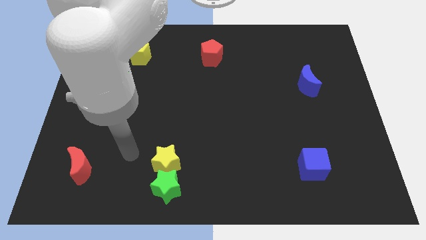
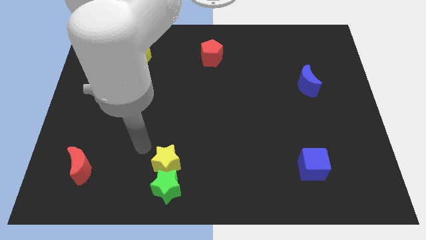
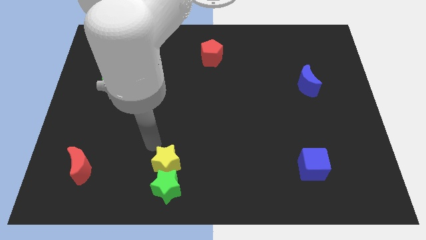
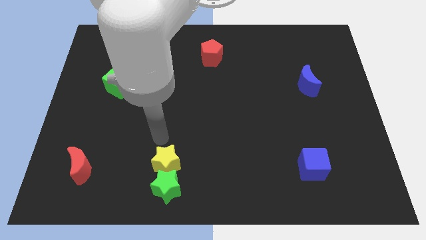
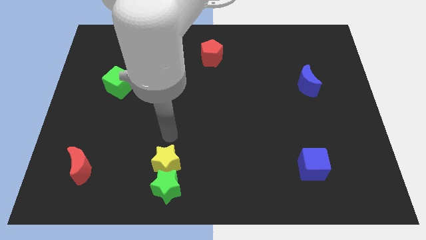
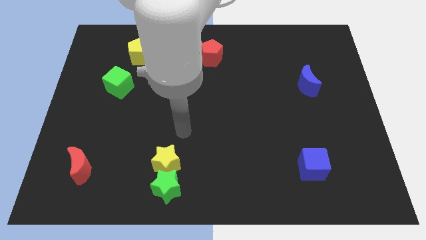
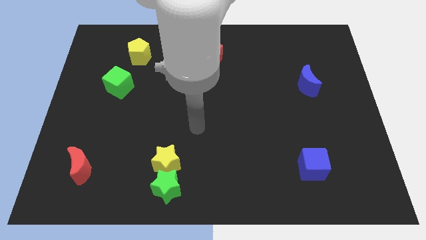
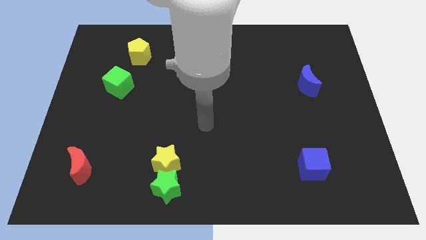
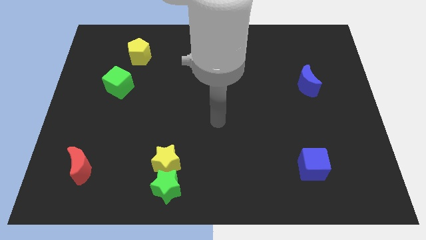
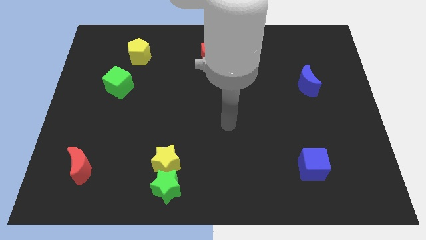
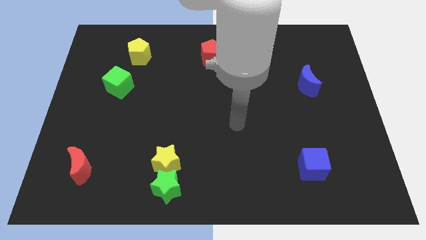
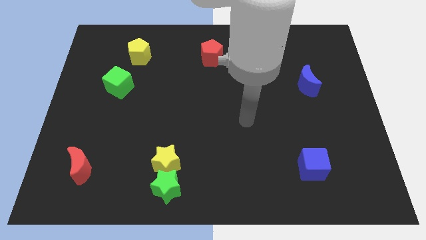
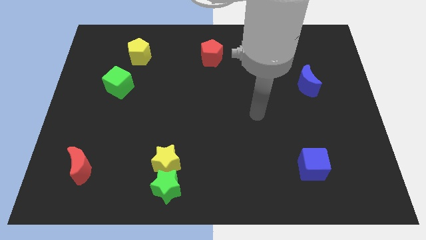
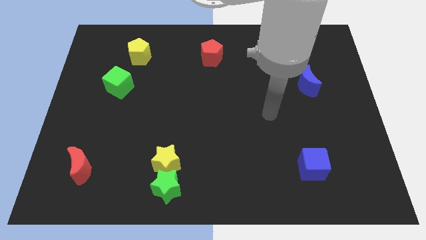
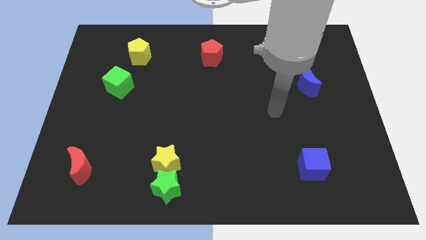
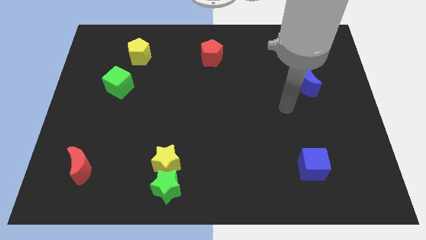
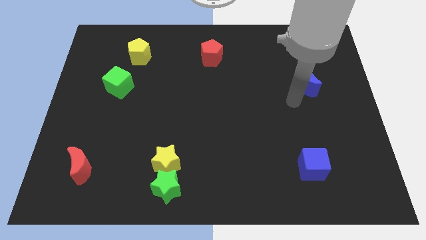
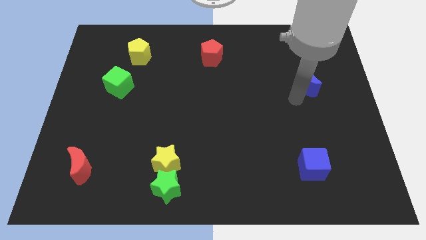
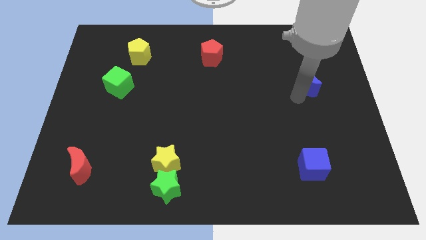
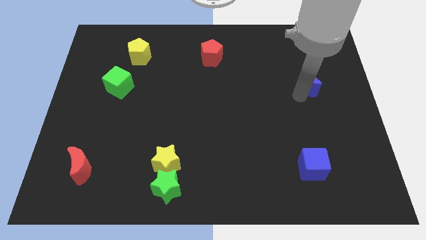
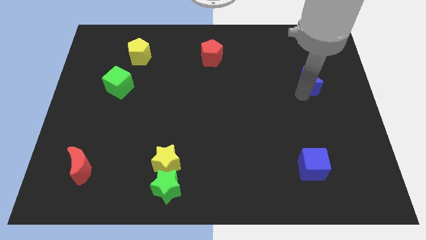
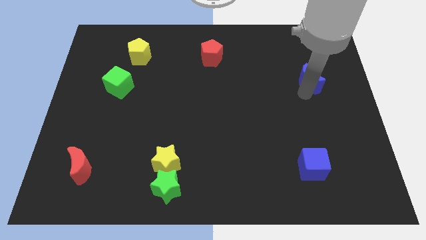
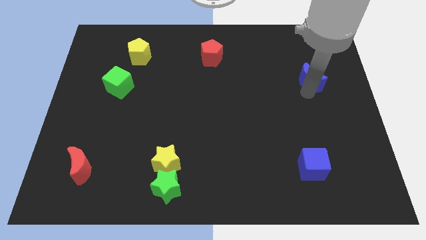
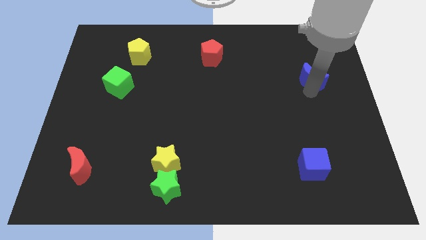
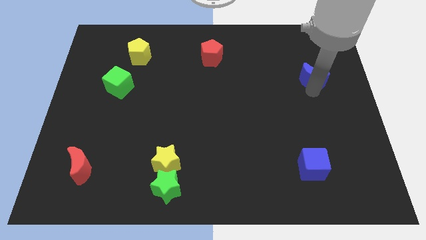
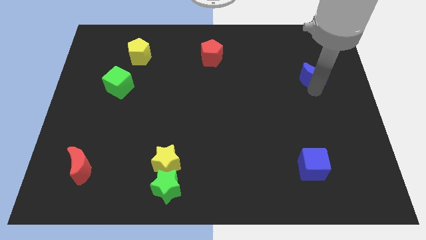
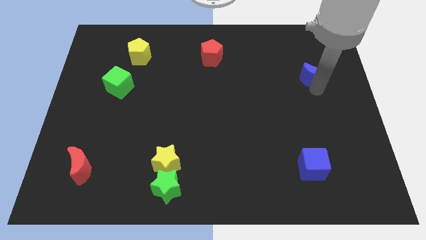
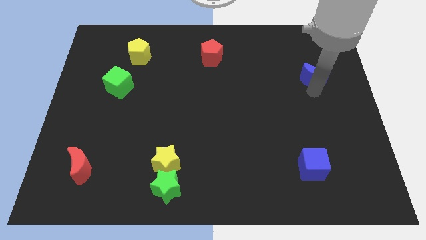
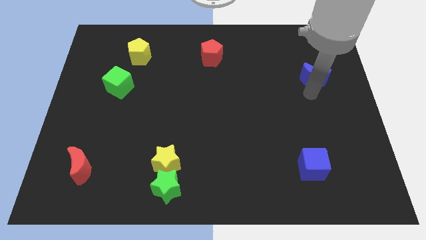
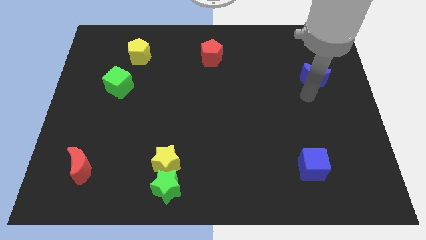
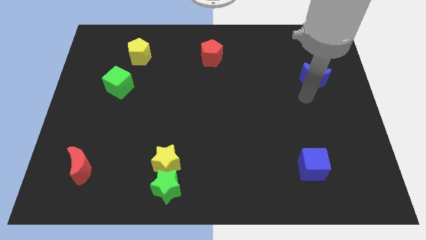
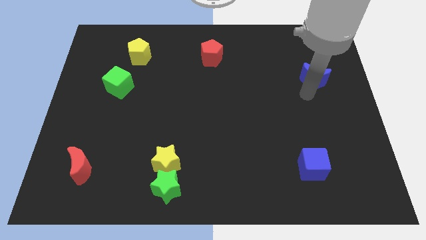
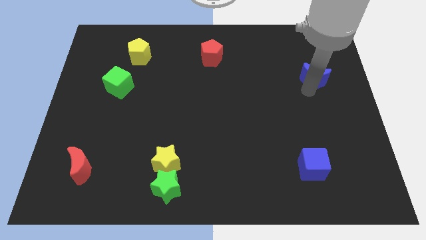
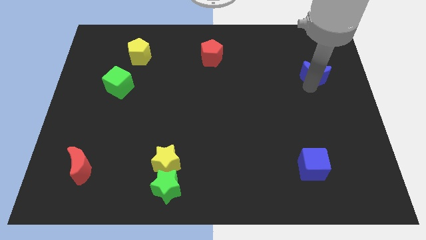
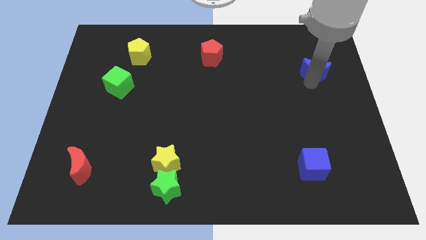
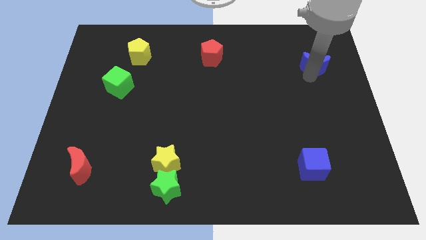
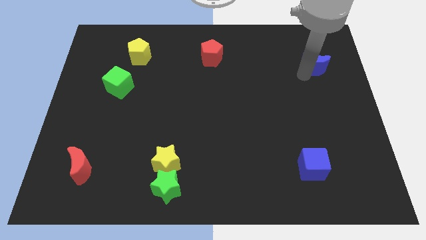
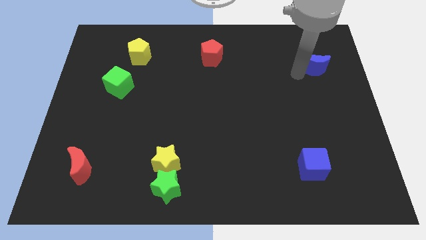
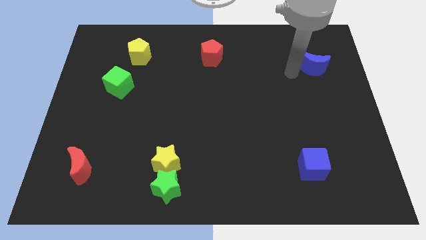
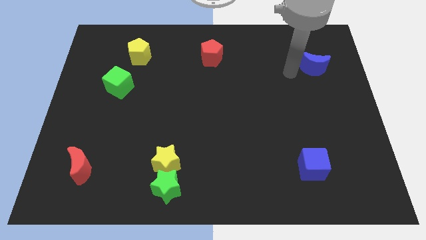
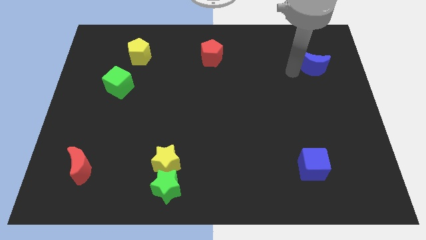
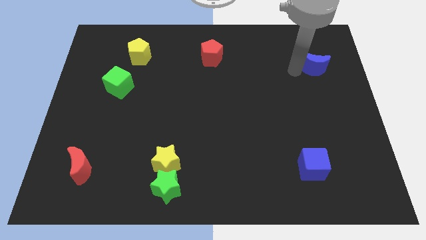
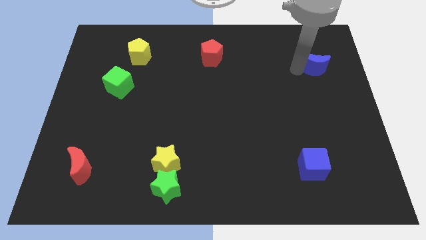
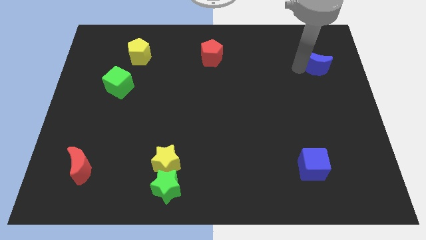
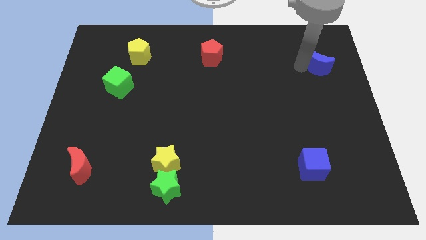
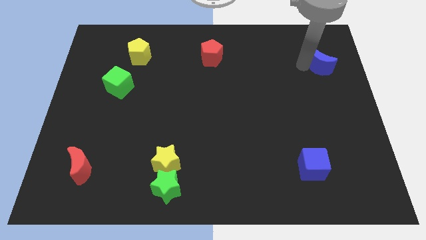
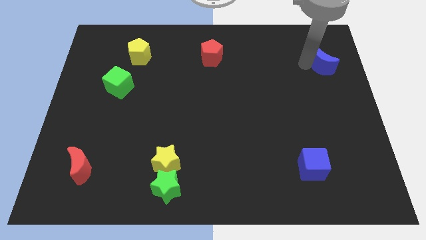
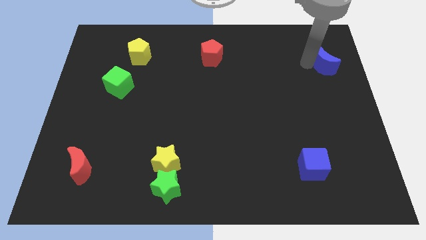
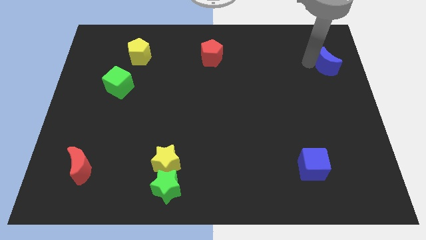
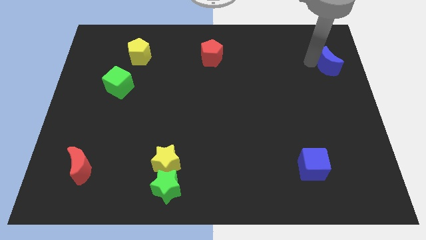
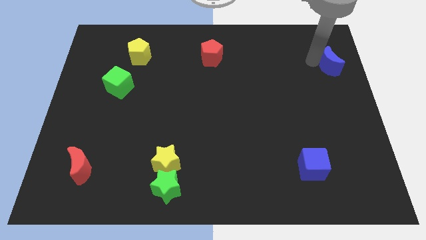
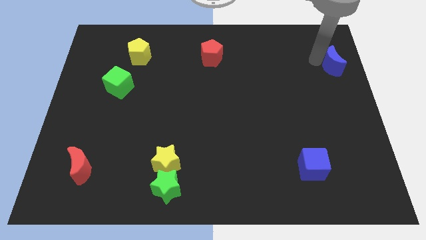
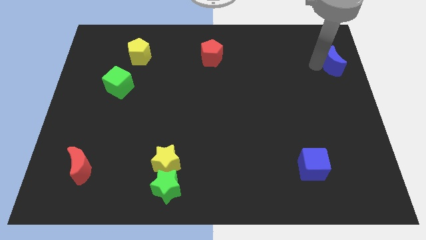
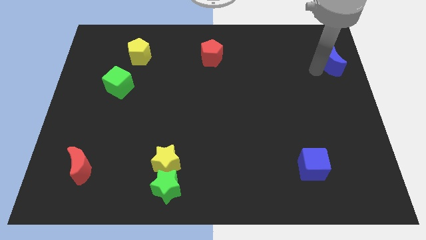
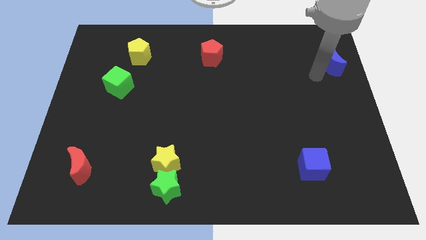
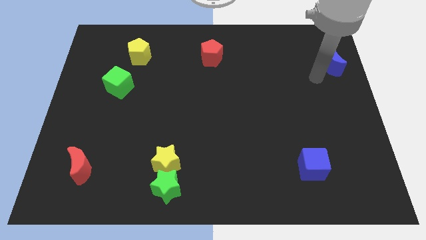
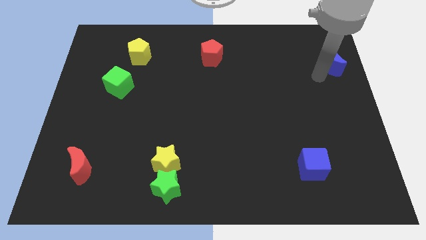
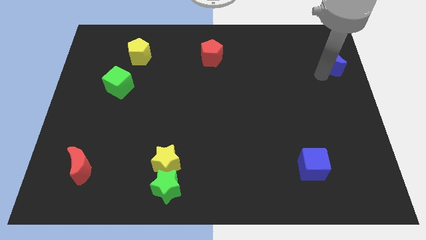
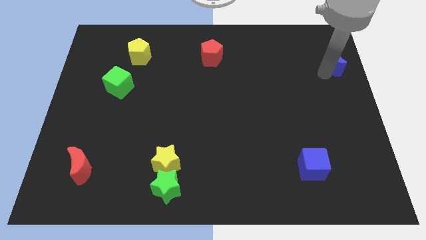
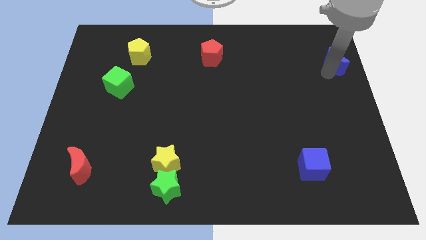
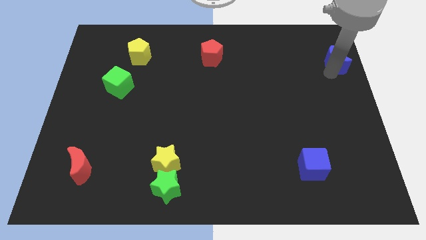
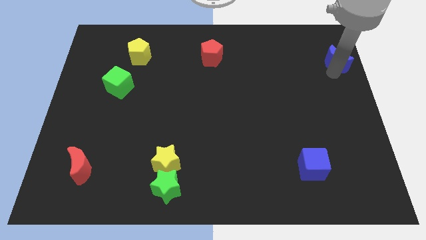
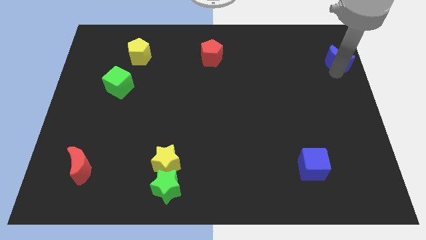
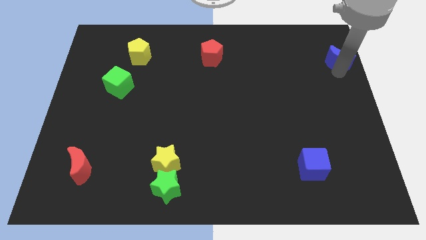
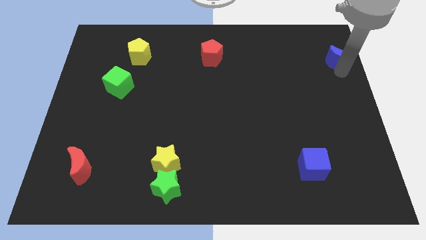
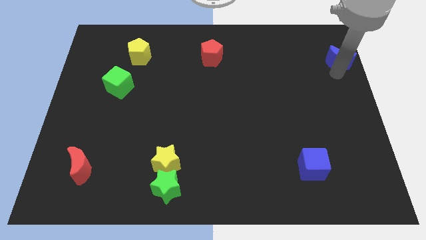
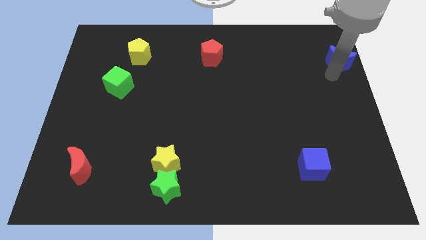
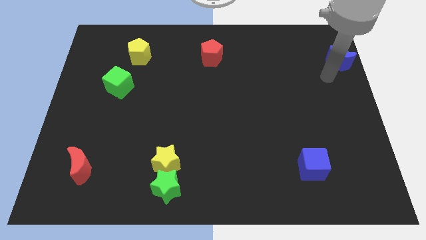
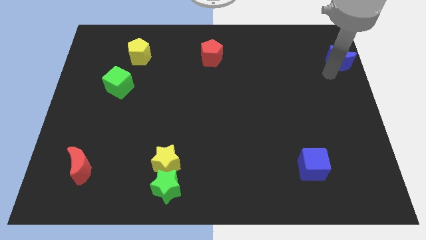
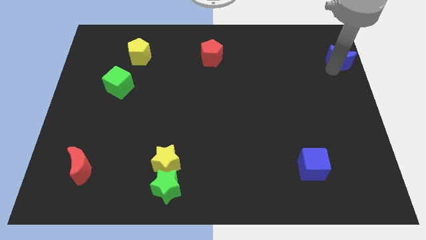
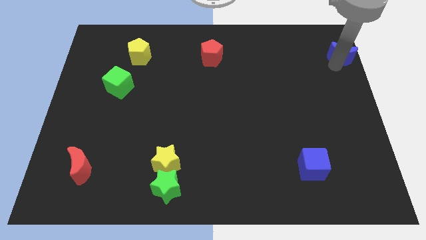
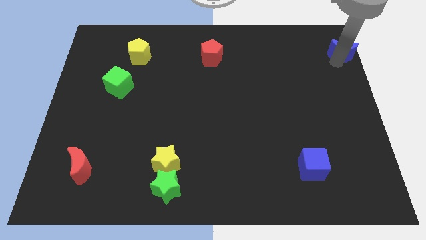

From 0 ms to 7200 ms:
put the blue moon to the top right
